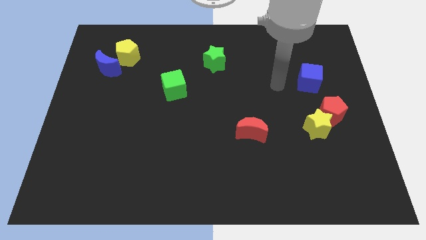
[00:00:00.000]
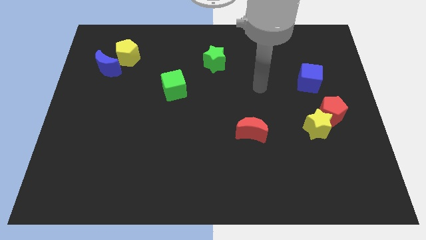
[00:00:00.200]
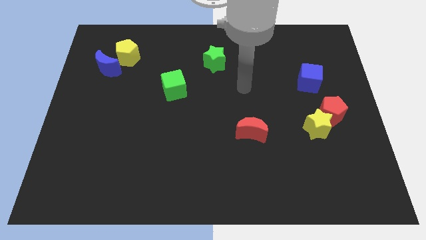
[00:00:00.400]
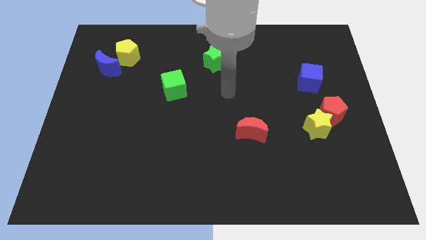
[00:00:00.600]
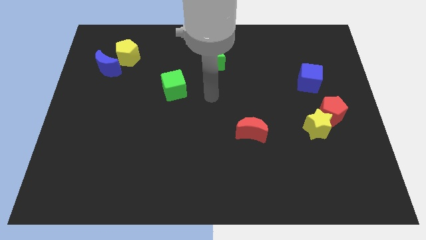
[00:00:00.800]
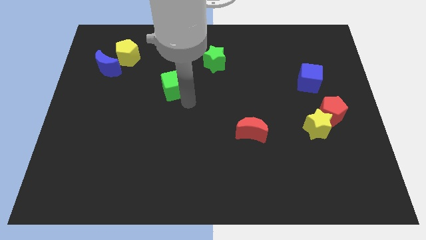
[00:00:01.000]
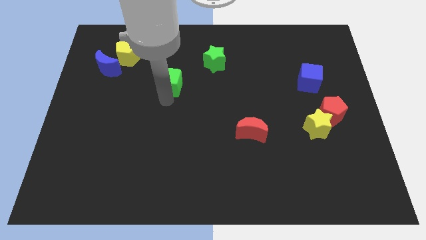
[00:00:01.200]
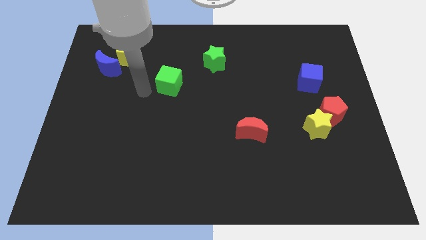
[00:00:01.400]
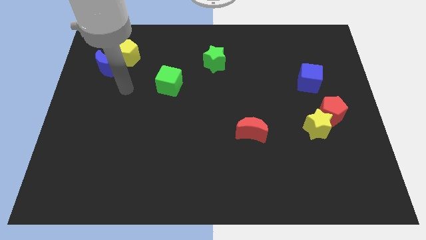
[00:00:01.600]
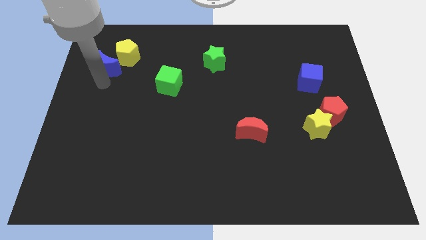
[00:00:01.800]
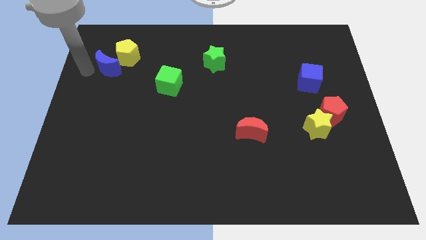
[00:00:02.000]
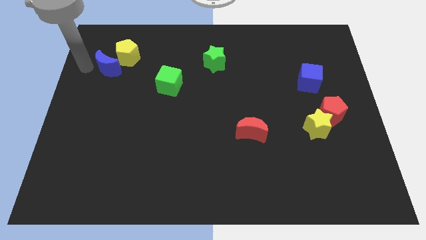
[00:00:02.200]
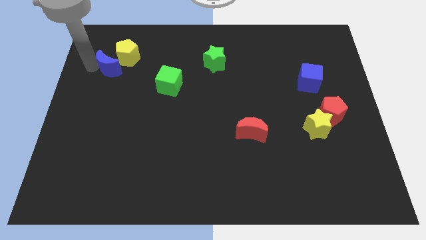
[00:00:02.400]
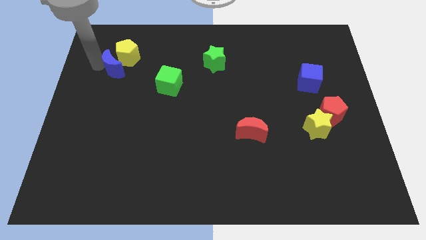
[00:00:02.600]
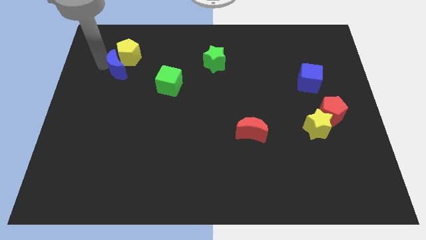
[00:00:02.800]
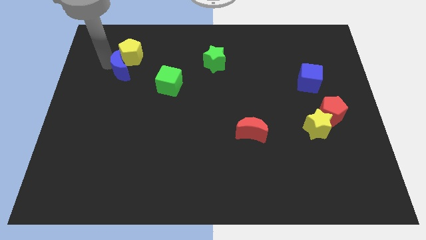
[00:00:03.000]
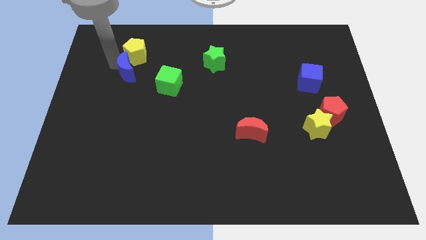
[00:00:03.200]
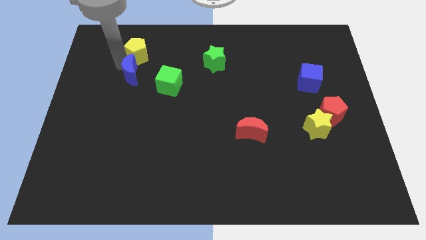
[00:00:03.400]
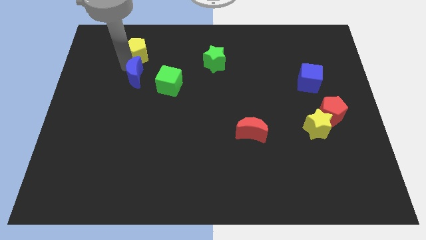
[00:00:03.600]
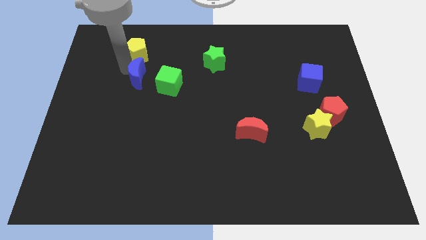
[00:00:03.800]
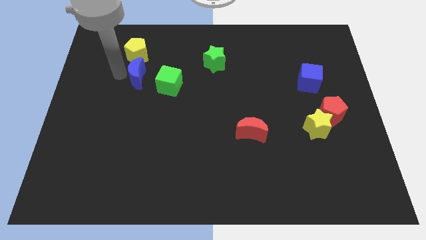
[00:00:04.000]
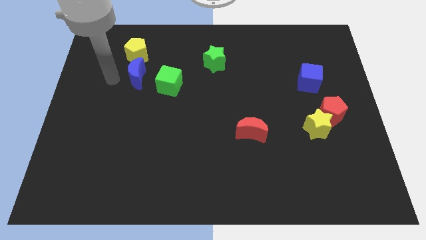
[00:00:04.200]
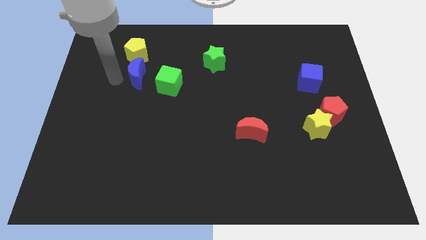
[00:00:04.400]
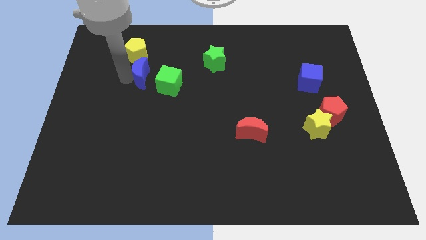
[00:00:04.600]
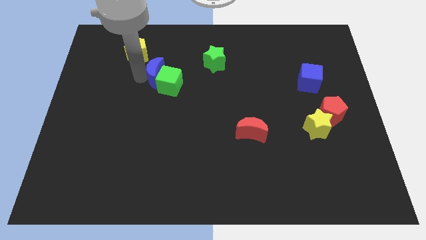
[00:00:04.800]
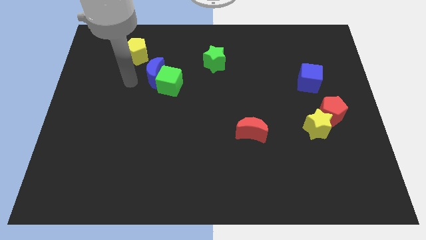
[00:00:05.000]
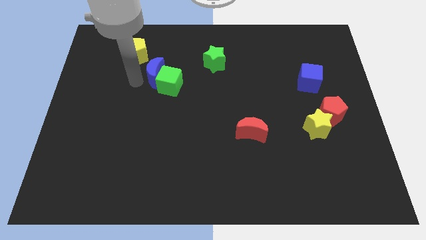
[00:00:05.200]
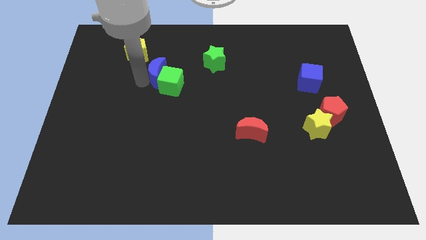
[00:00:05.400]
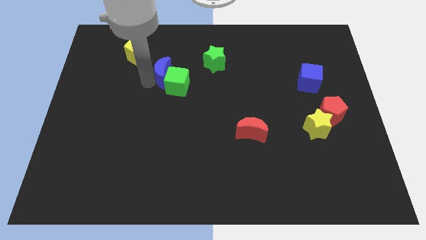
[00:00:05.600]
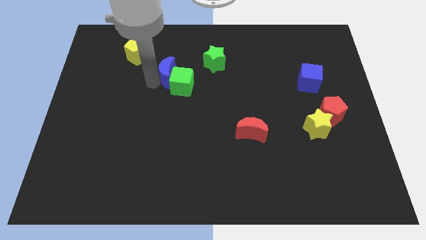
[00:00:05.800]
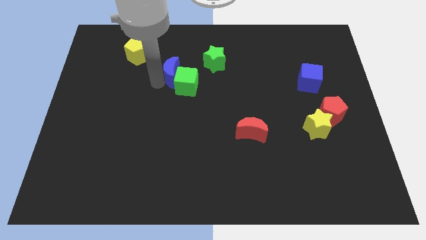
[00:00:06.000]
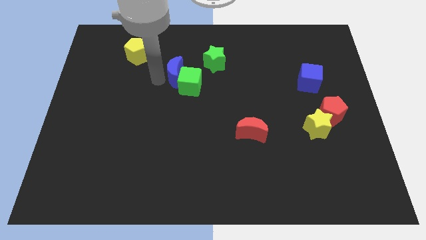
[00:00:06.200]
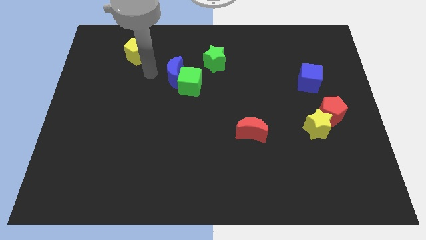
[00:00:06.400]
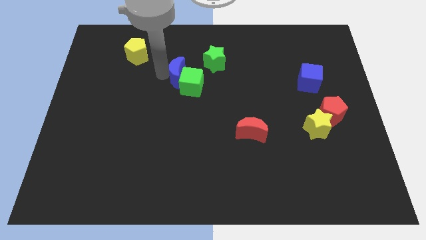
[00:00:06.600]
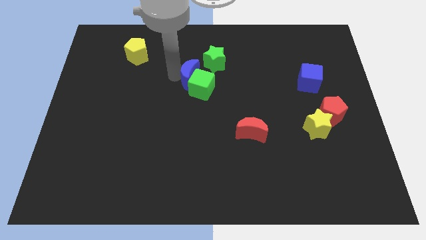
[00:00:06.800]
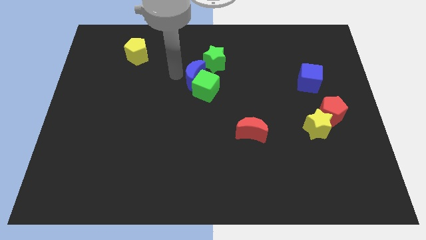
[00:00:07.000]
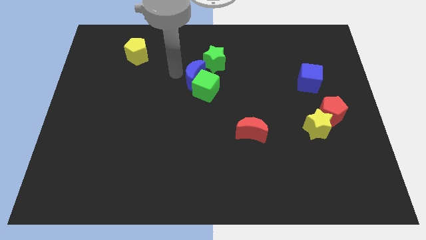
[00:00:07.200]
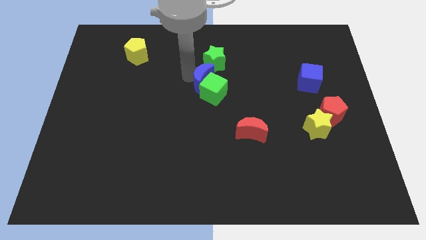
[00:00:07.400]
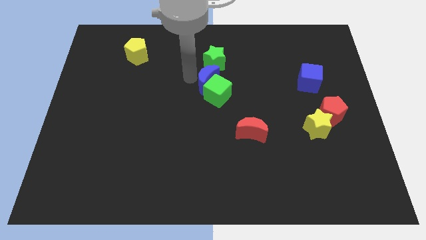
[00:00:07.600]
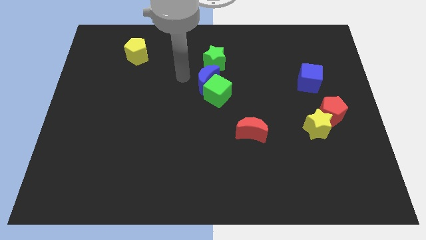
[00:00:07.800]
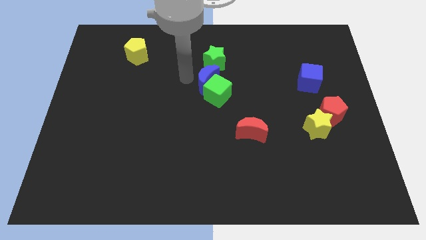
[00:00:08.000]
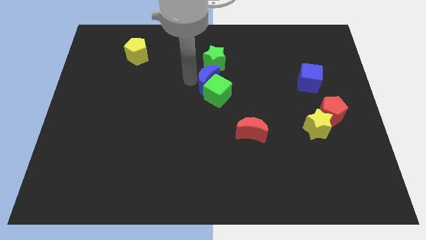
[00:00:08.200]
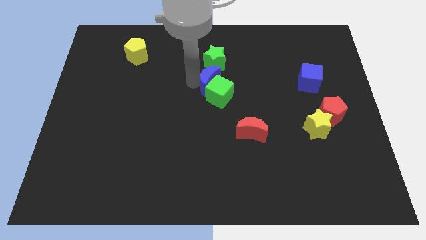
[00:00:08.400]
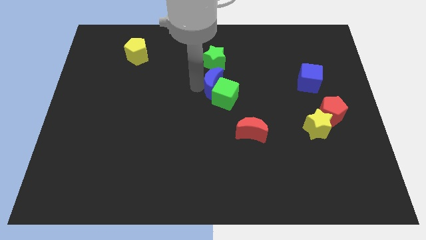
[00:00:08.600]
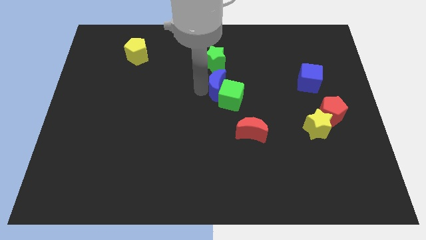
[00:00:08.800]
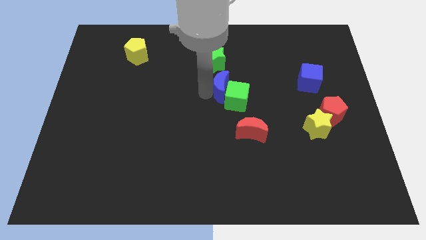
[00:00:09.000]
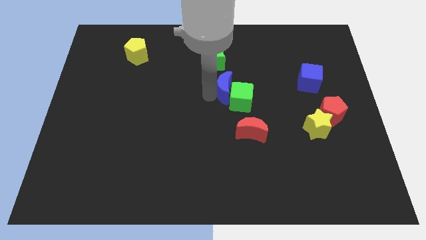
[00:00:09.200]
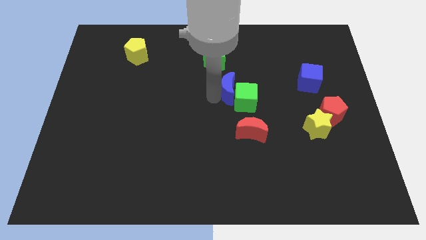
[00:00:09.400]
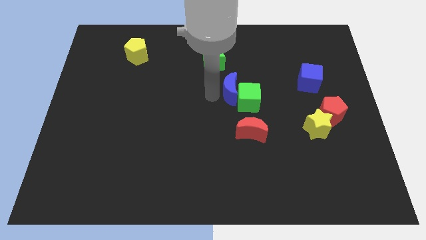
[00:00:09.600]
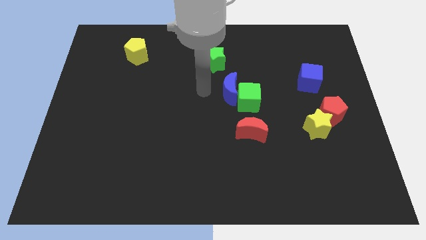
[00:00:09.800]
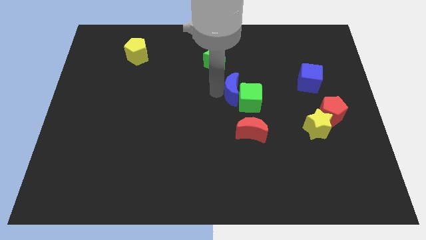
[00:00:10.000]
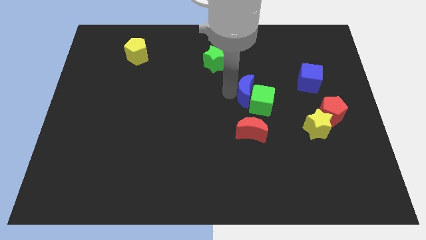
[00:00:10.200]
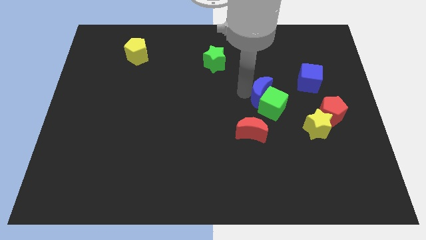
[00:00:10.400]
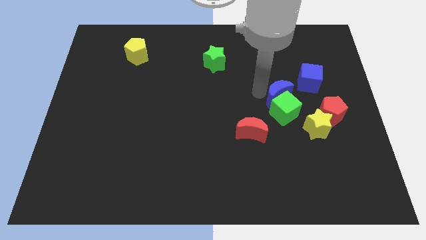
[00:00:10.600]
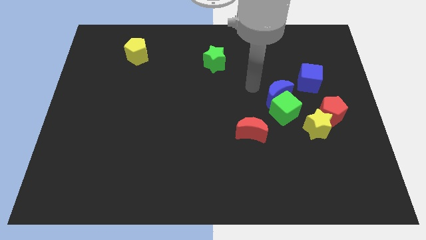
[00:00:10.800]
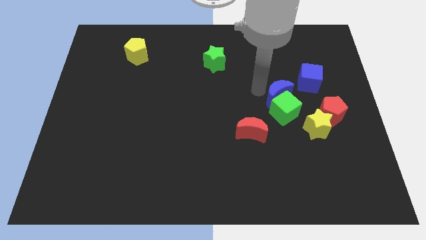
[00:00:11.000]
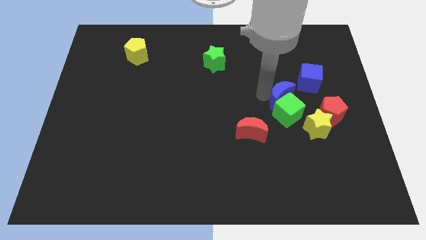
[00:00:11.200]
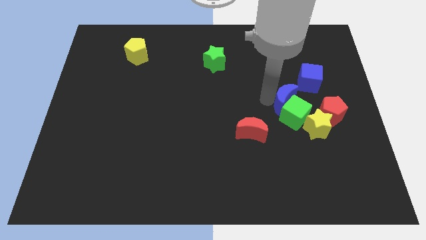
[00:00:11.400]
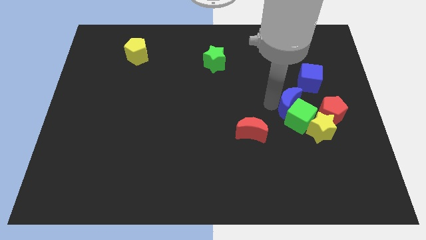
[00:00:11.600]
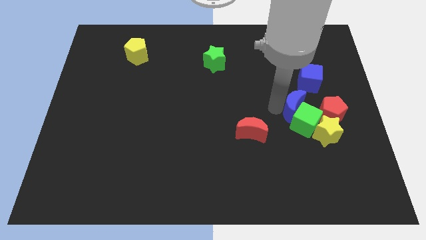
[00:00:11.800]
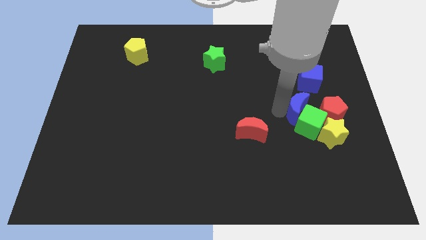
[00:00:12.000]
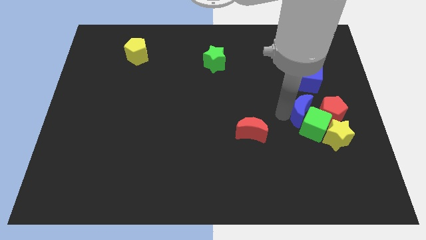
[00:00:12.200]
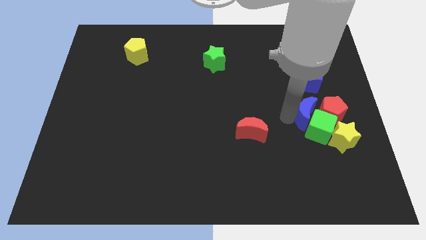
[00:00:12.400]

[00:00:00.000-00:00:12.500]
push the blue moon to the red pentagon

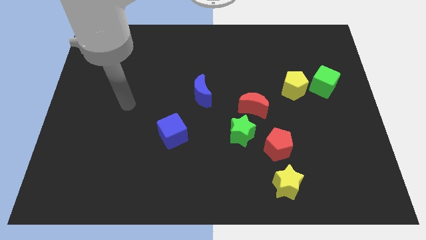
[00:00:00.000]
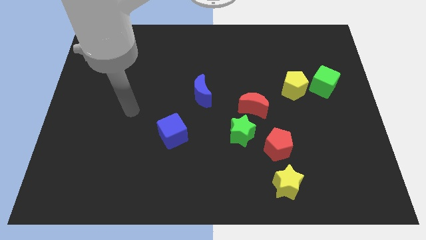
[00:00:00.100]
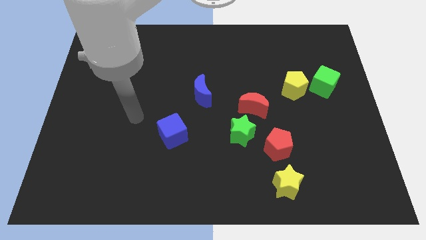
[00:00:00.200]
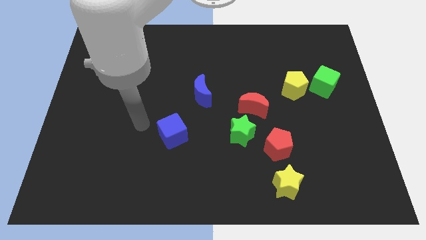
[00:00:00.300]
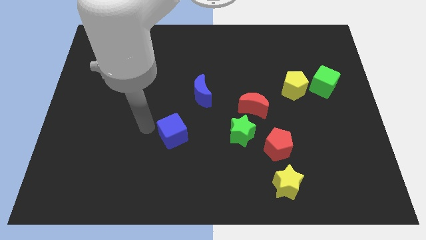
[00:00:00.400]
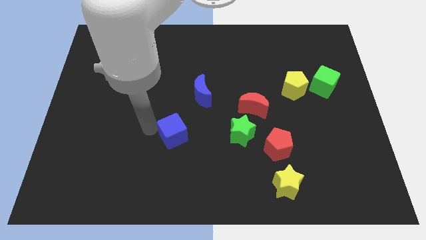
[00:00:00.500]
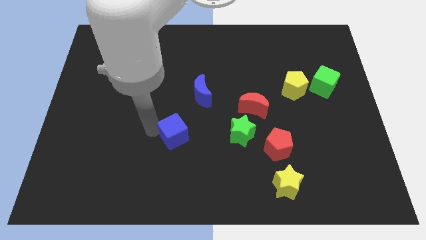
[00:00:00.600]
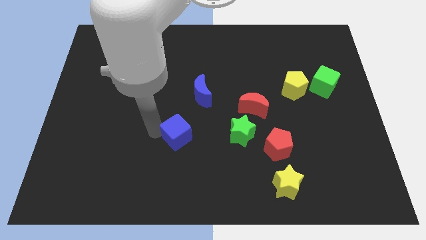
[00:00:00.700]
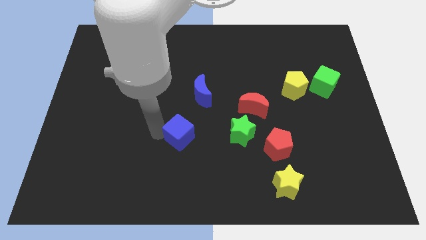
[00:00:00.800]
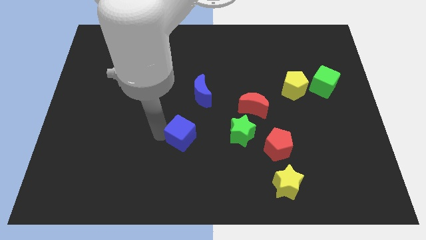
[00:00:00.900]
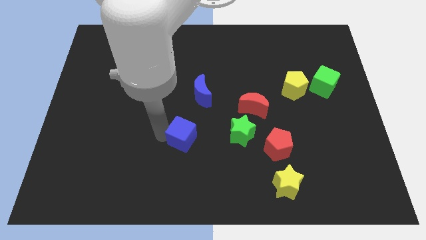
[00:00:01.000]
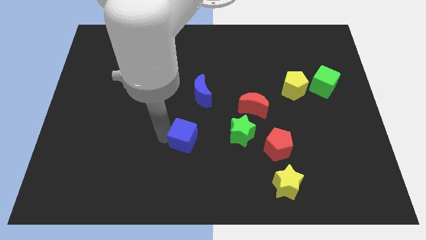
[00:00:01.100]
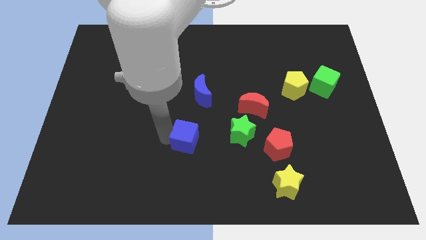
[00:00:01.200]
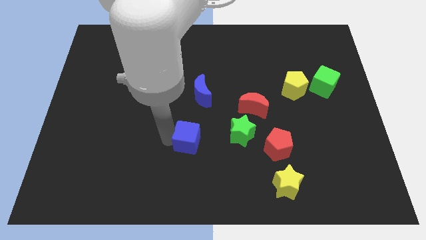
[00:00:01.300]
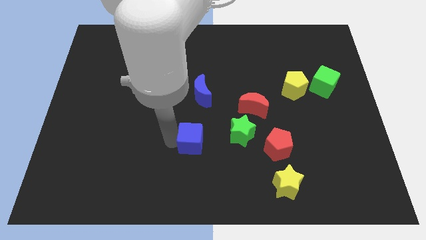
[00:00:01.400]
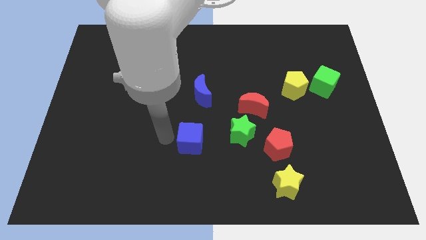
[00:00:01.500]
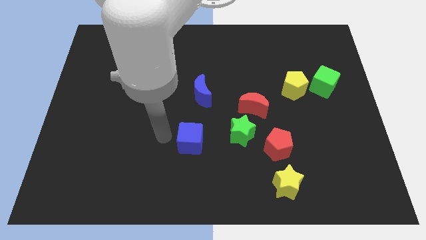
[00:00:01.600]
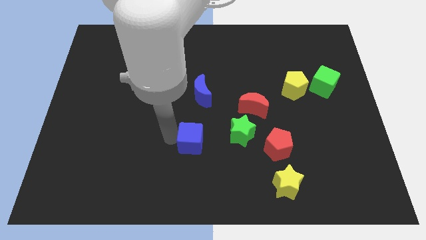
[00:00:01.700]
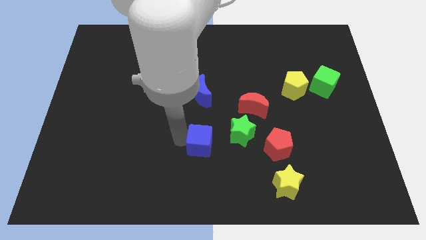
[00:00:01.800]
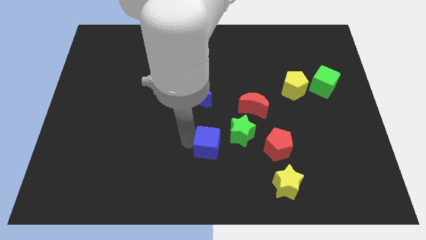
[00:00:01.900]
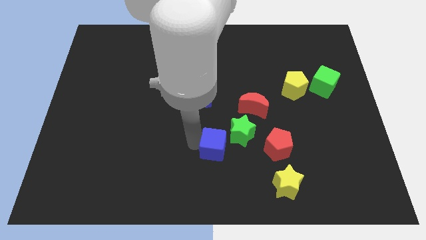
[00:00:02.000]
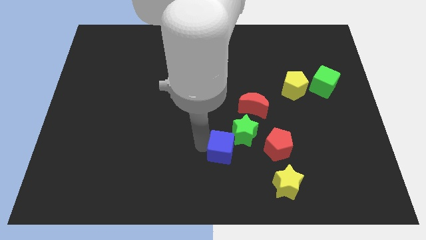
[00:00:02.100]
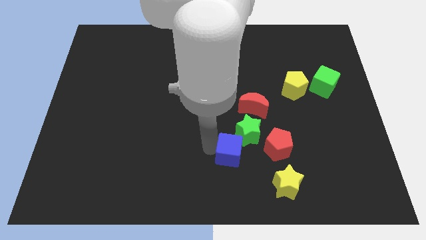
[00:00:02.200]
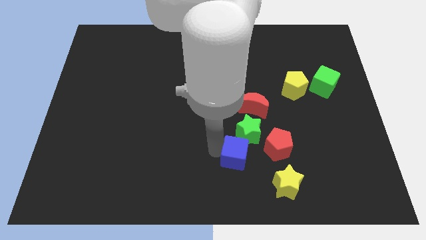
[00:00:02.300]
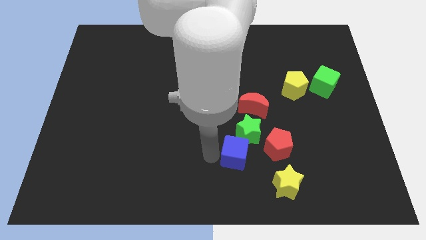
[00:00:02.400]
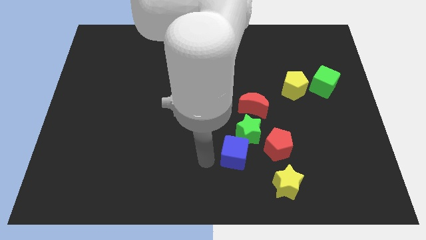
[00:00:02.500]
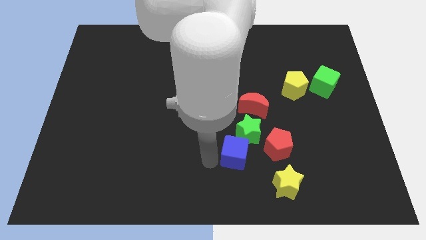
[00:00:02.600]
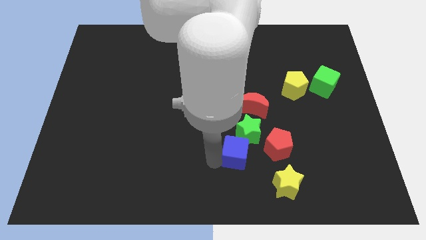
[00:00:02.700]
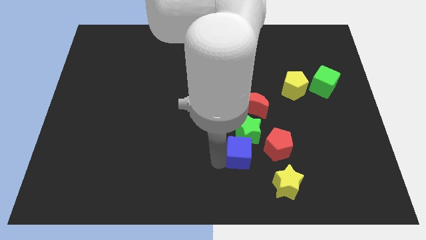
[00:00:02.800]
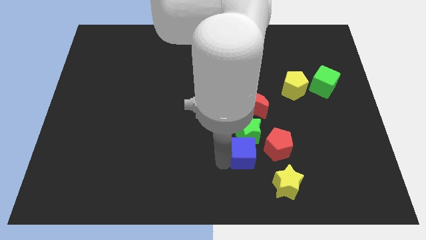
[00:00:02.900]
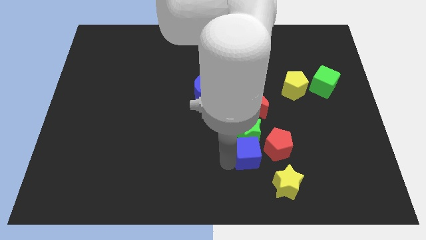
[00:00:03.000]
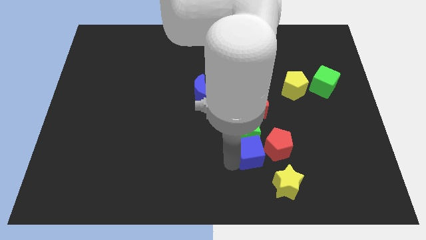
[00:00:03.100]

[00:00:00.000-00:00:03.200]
push the blue cube close to the red pentagon
